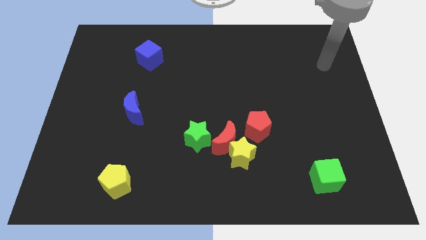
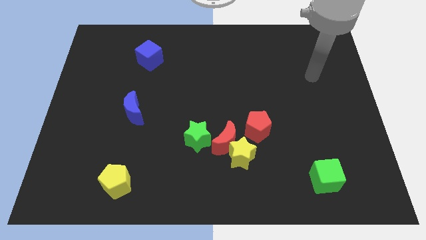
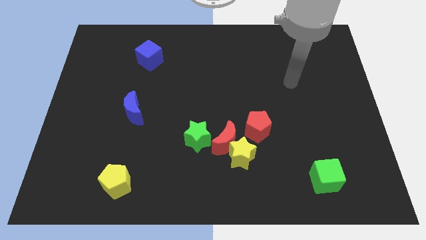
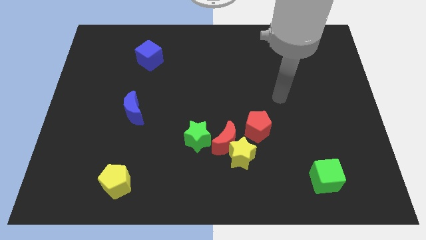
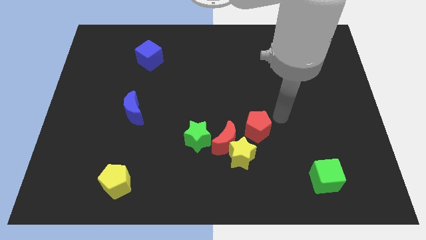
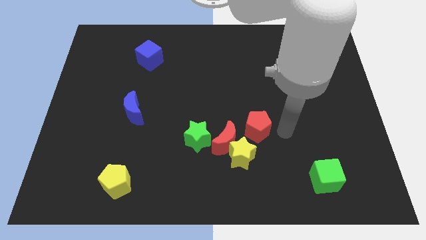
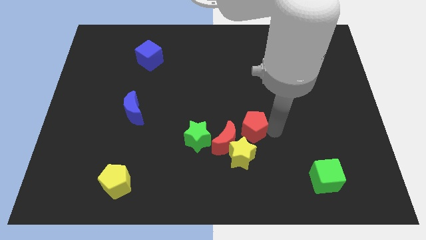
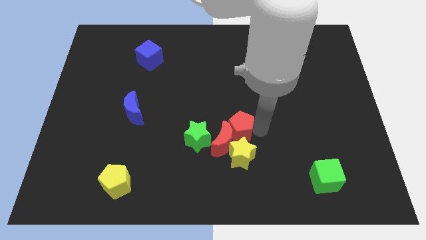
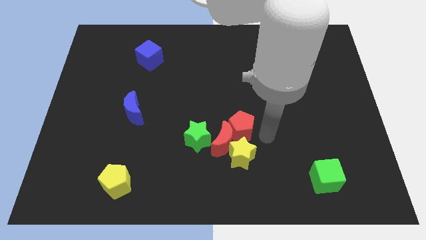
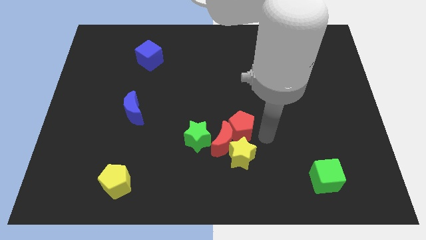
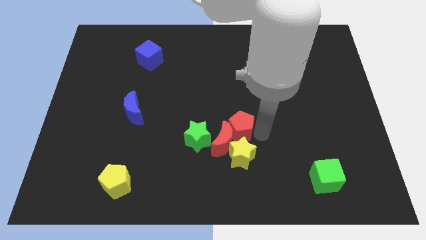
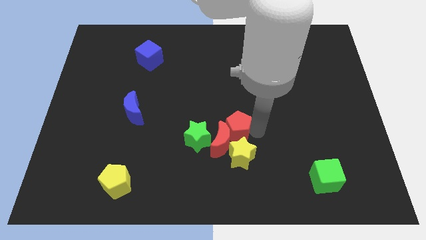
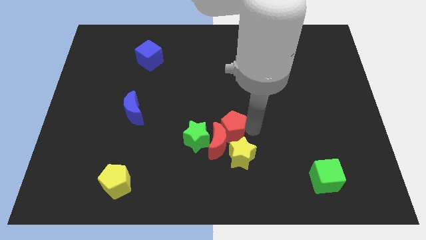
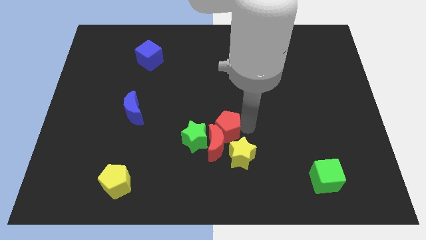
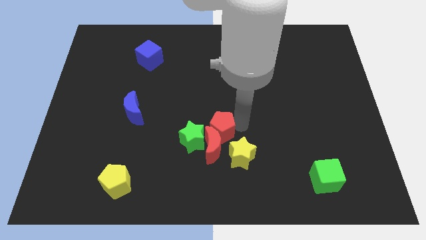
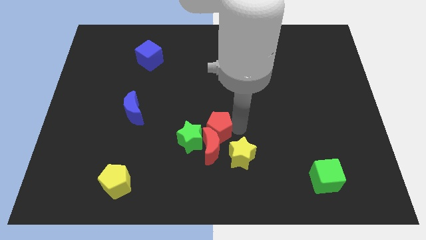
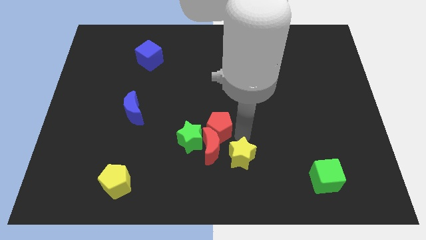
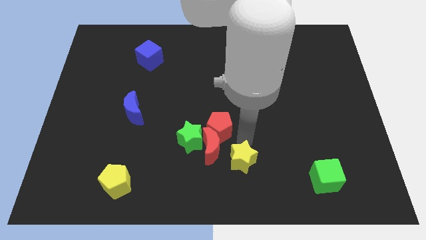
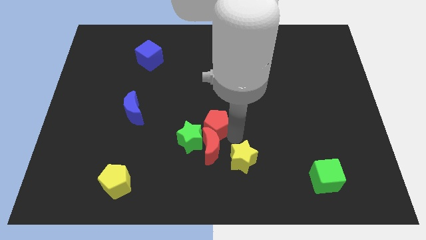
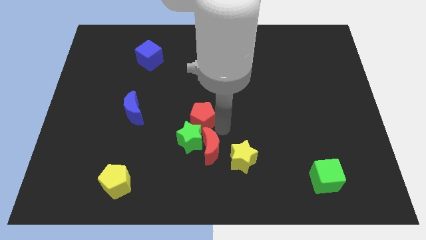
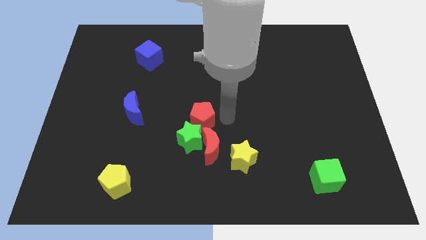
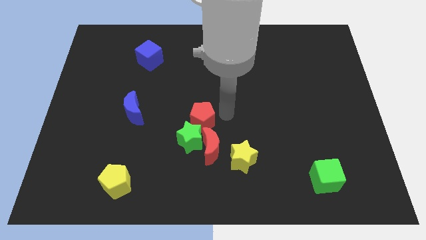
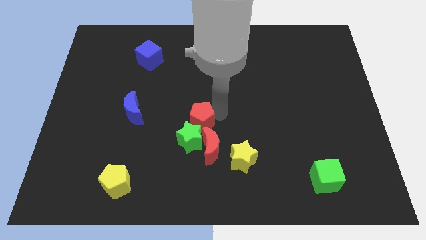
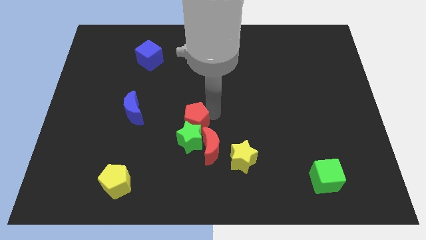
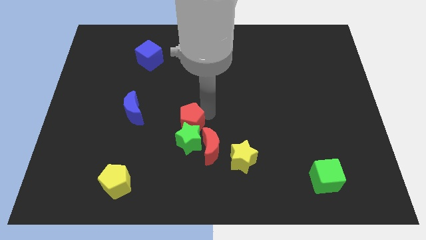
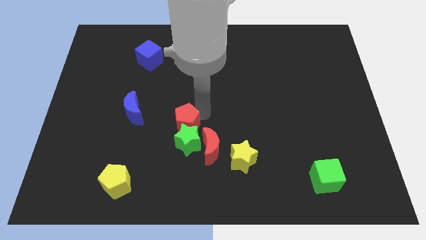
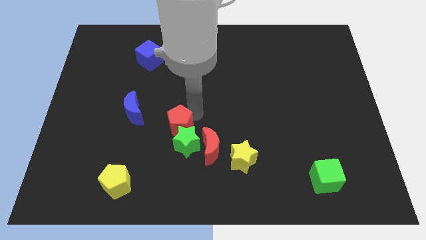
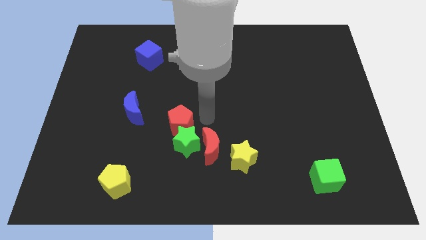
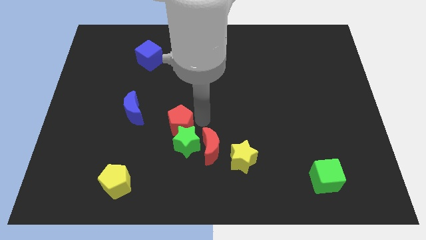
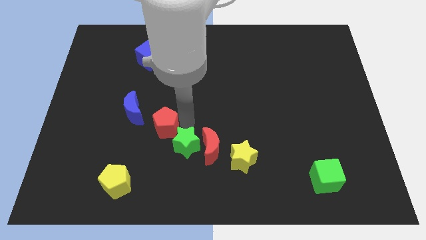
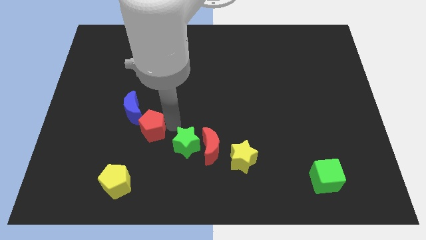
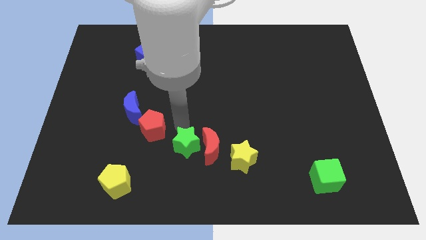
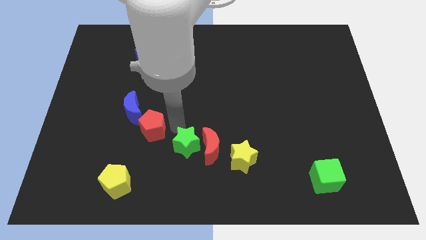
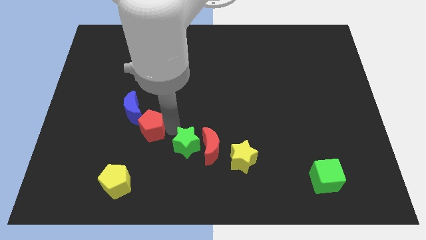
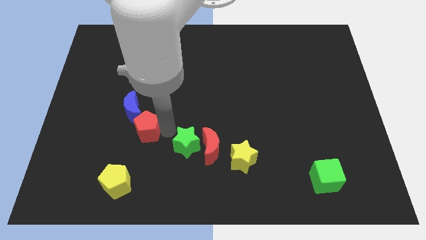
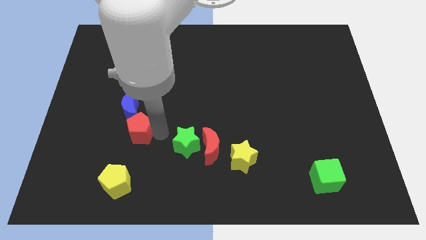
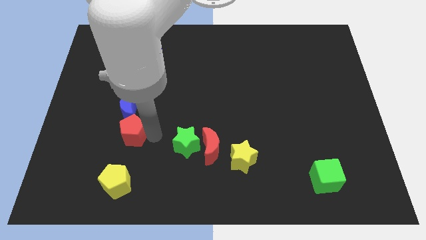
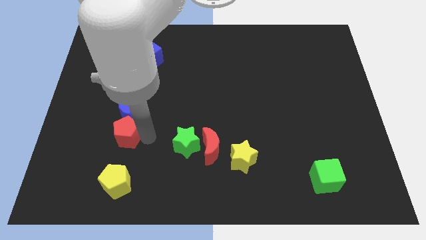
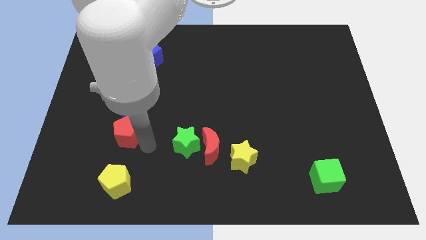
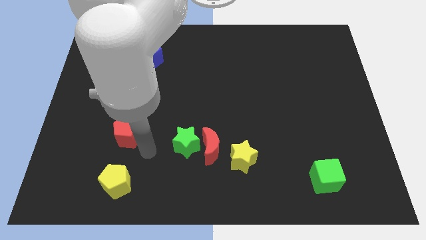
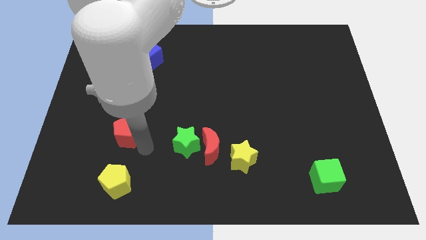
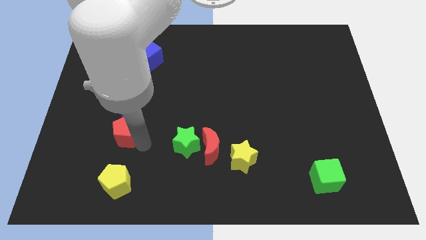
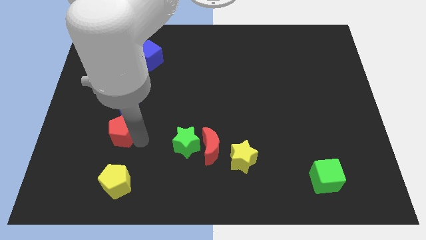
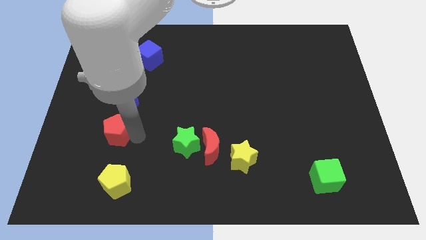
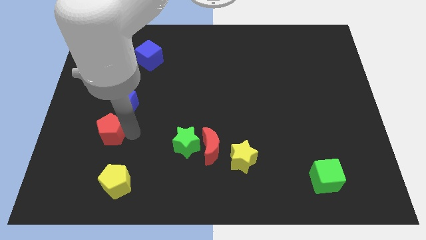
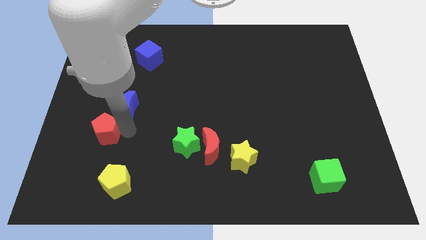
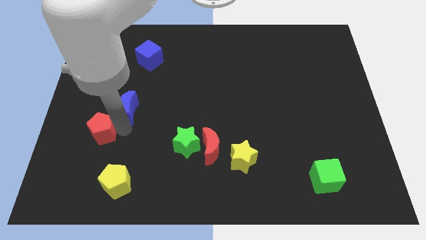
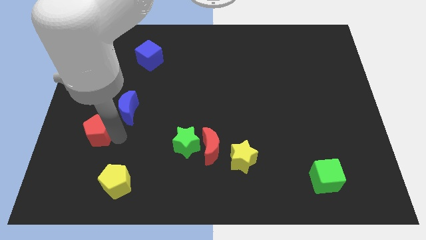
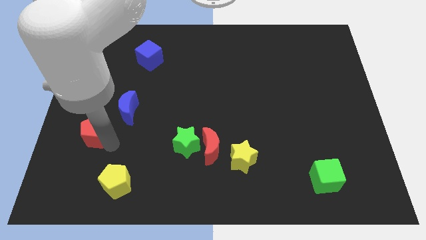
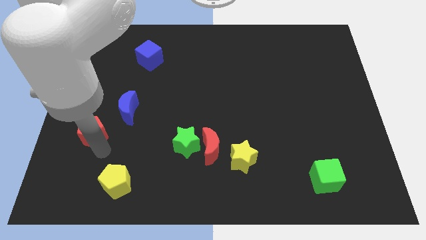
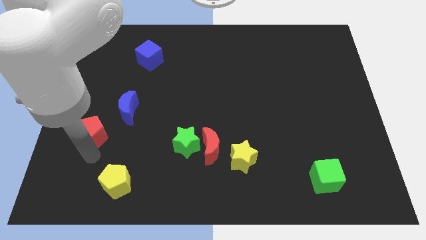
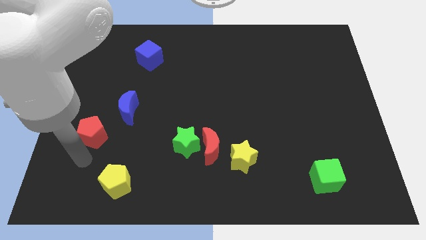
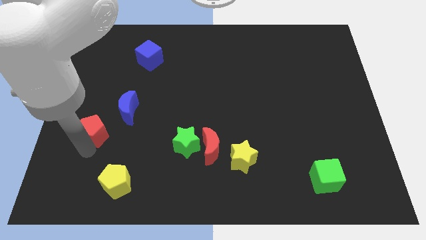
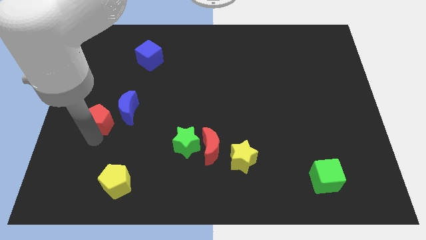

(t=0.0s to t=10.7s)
put the red pentagon left of the blue moon

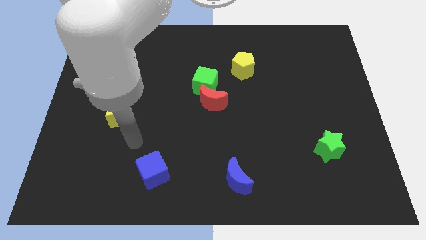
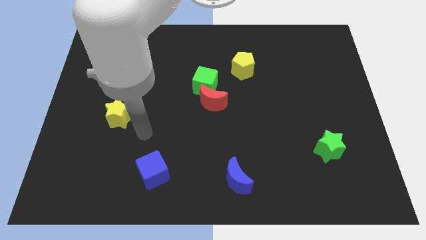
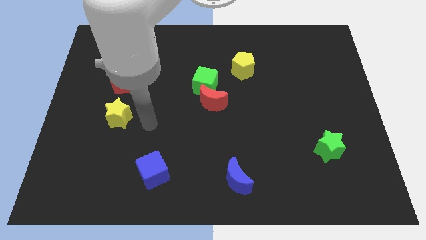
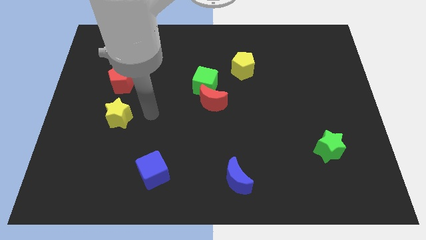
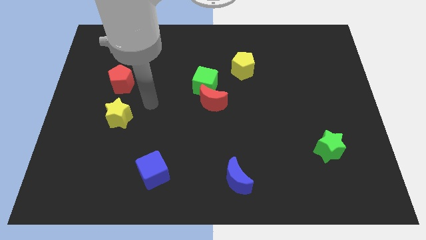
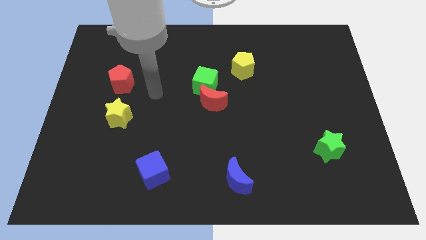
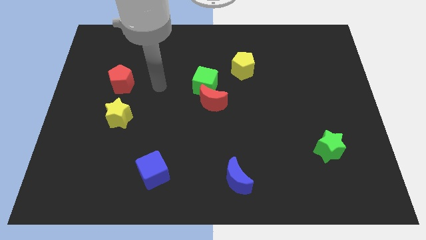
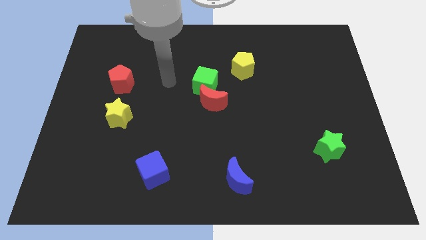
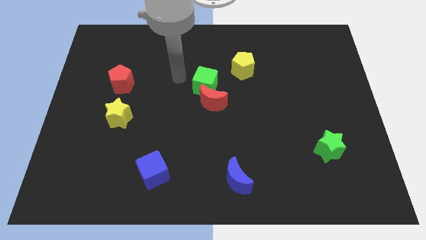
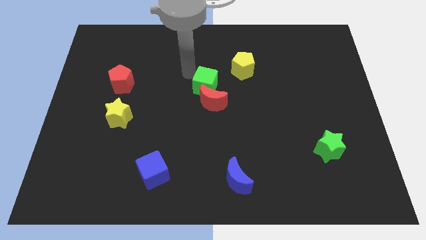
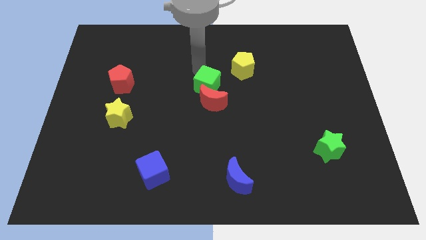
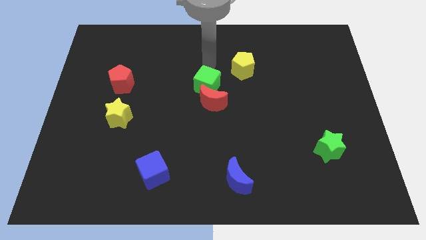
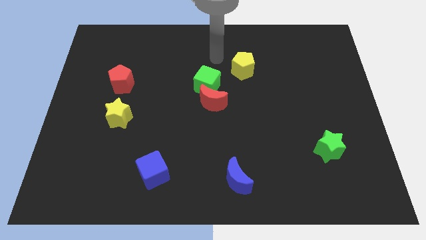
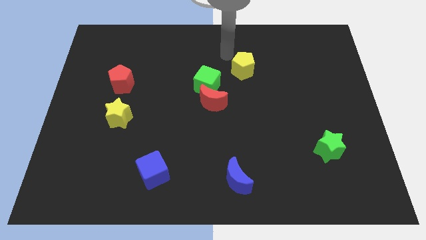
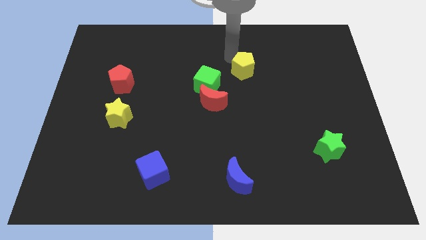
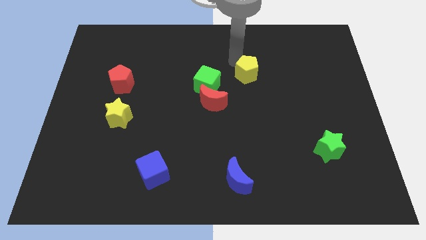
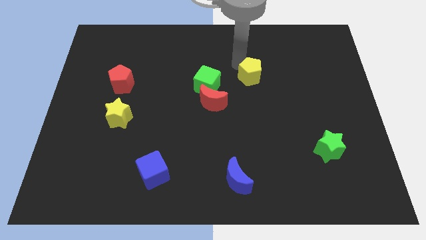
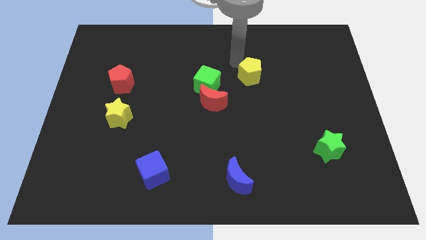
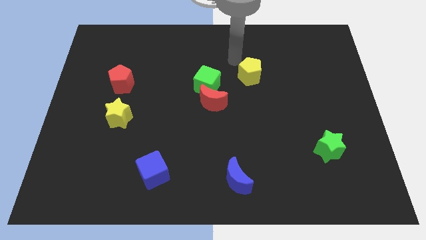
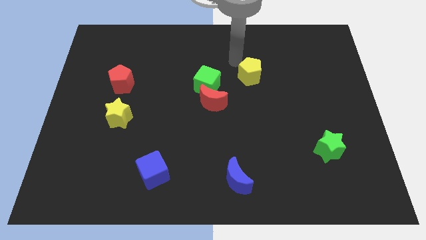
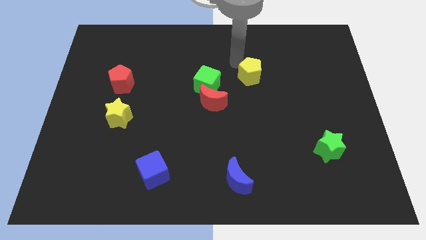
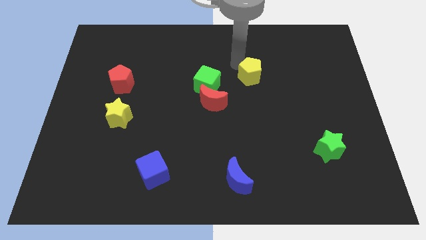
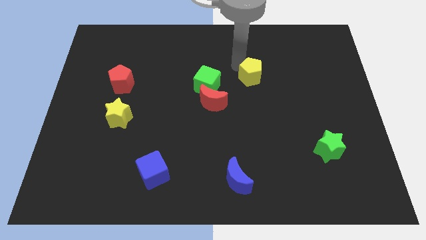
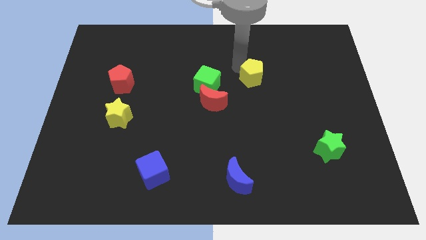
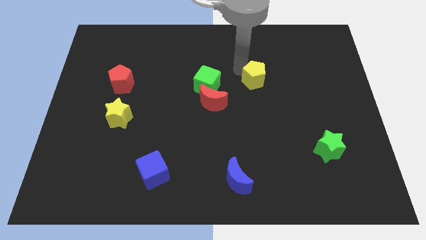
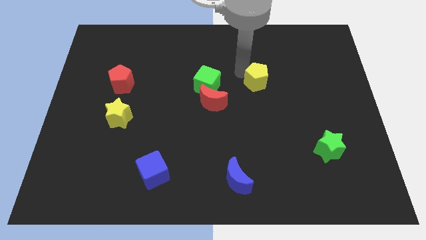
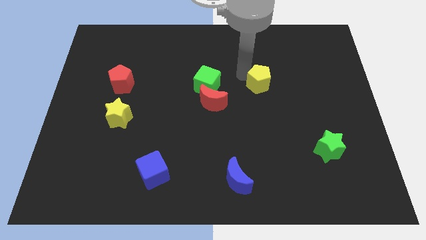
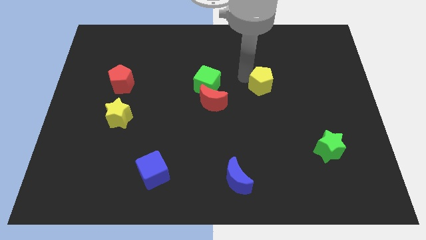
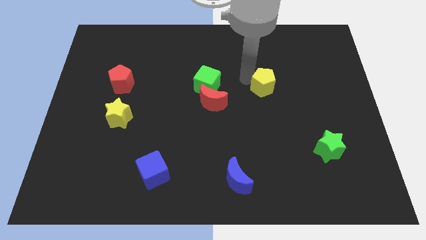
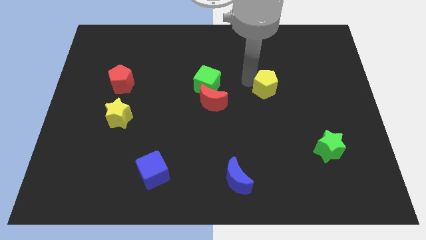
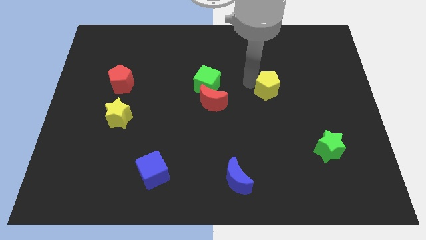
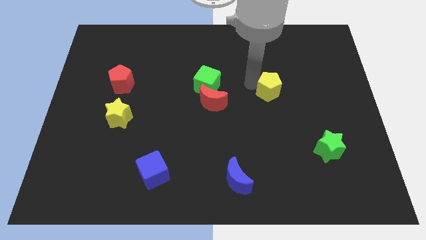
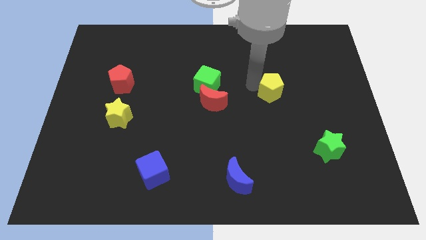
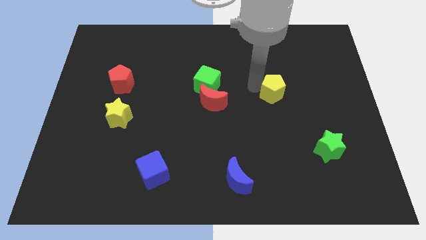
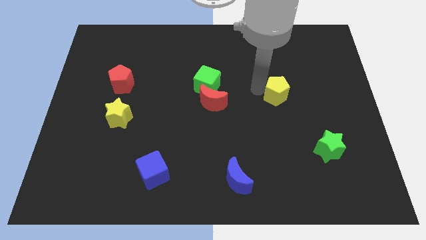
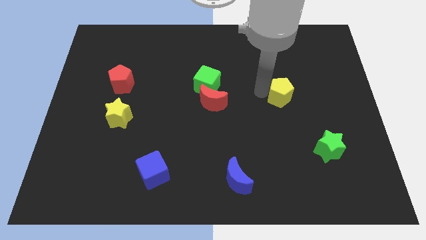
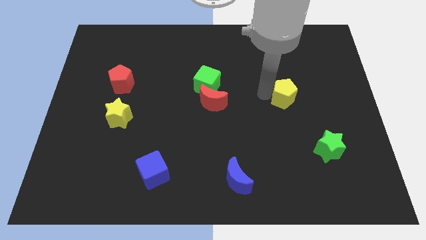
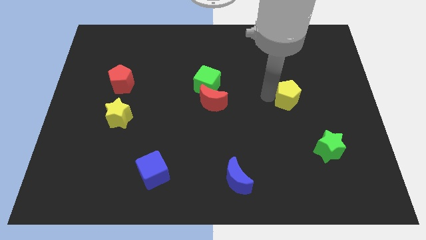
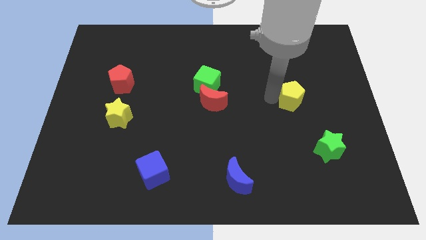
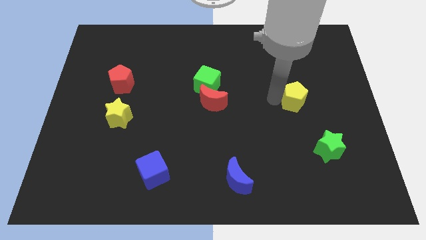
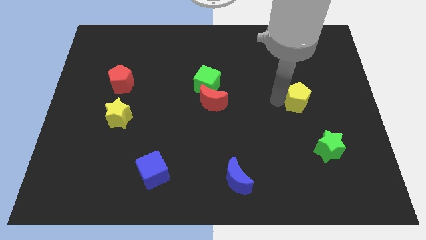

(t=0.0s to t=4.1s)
move the yellow pentagon to the top of the green star
